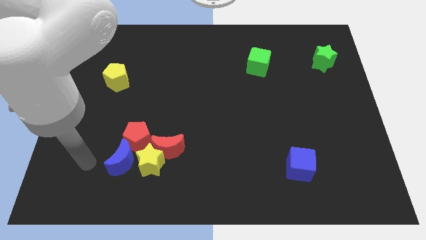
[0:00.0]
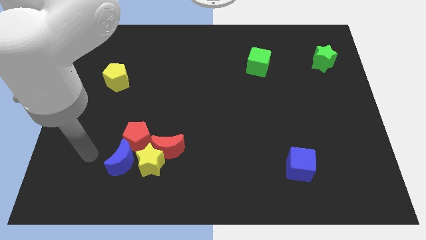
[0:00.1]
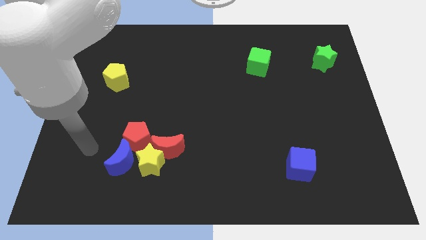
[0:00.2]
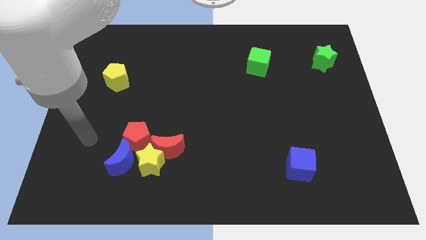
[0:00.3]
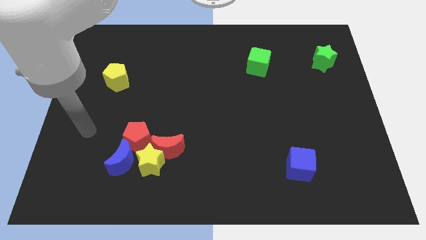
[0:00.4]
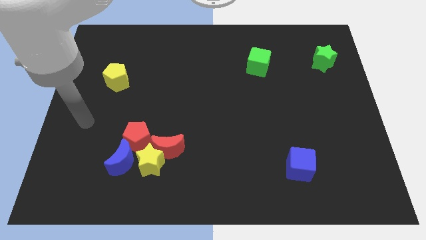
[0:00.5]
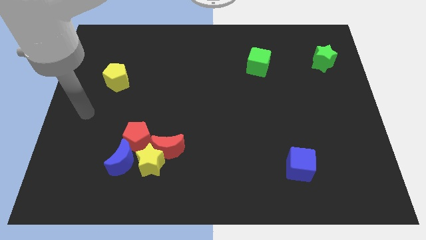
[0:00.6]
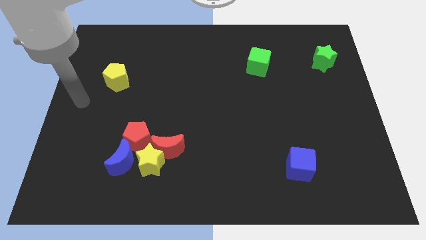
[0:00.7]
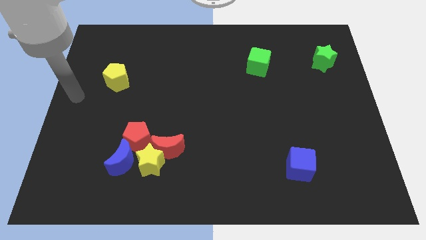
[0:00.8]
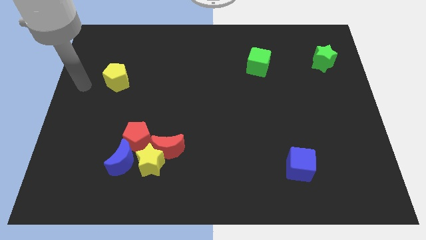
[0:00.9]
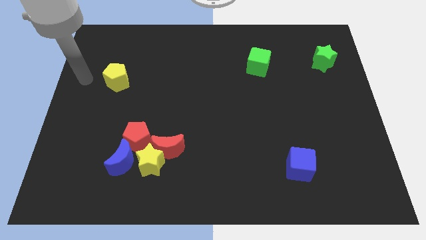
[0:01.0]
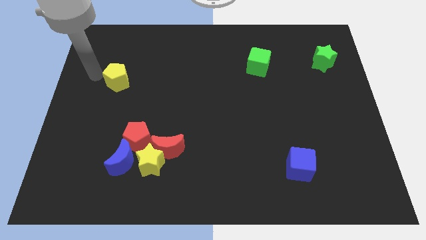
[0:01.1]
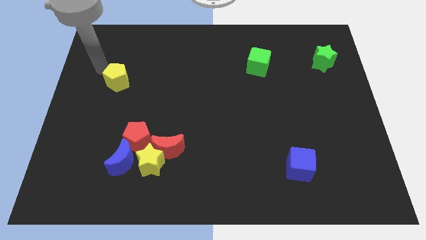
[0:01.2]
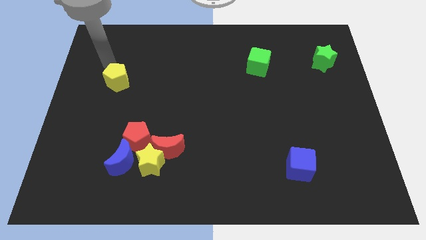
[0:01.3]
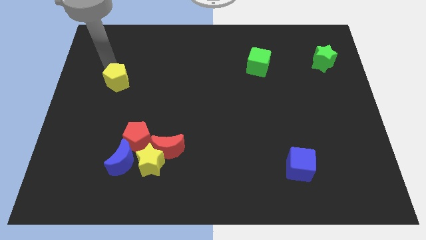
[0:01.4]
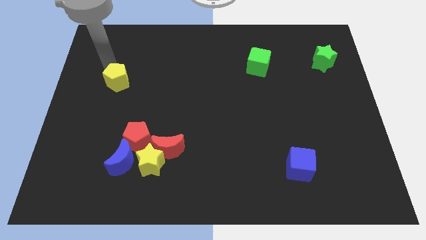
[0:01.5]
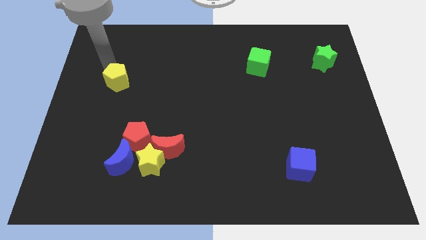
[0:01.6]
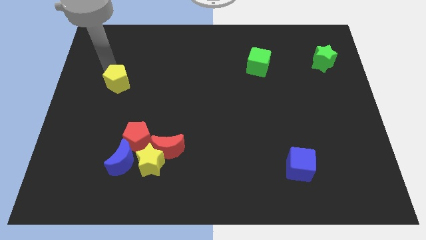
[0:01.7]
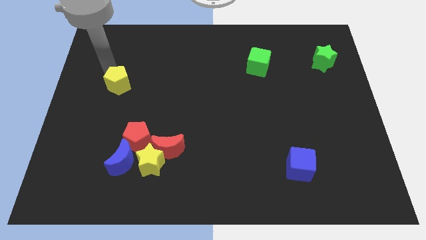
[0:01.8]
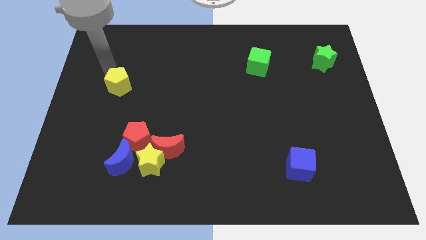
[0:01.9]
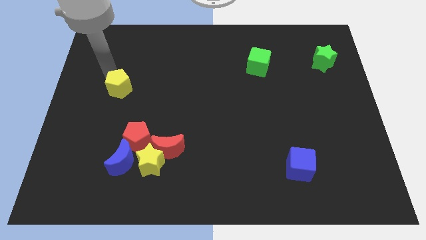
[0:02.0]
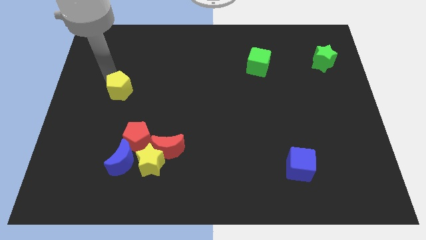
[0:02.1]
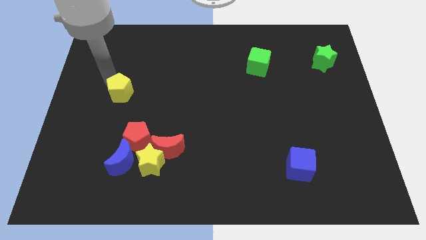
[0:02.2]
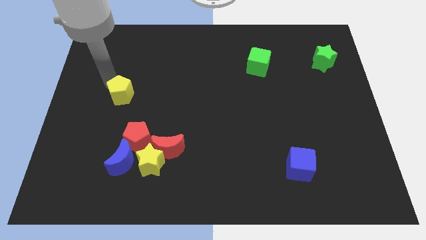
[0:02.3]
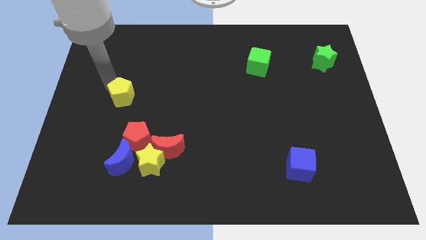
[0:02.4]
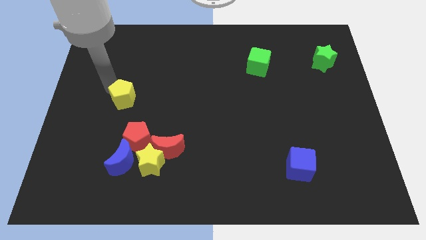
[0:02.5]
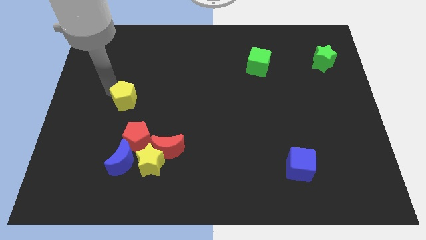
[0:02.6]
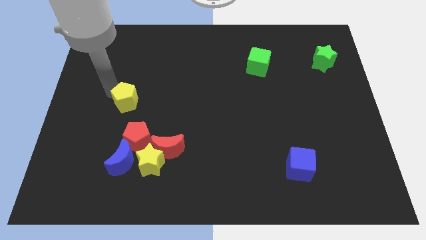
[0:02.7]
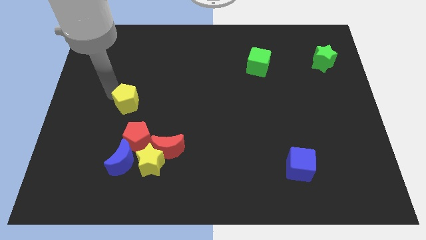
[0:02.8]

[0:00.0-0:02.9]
move the yellow pentagon down and then to the right somewhat

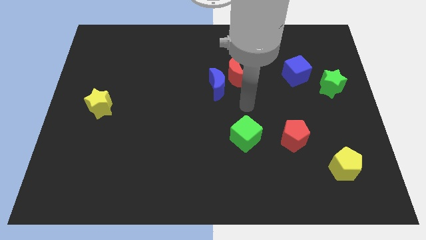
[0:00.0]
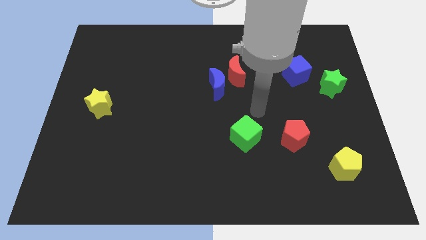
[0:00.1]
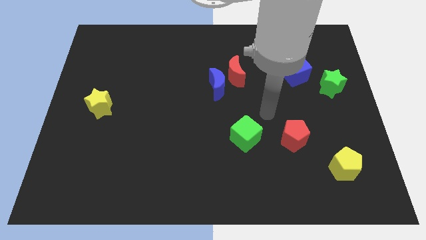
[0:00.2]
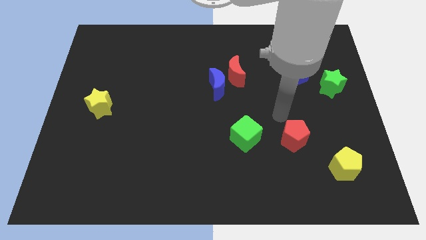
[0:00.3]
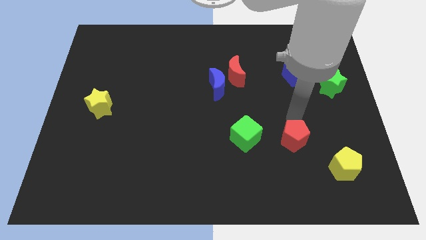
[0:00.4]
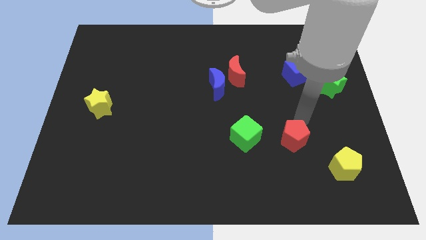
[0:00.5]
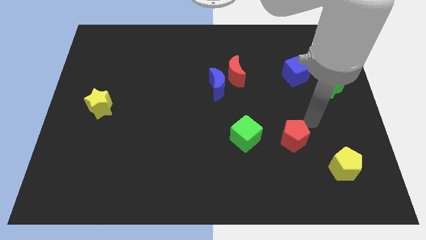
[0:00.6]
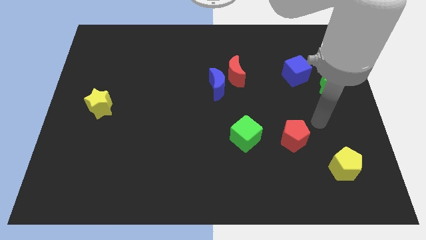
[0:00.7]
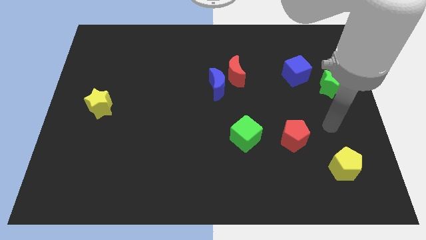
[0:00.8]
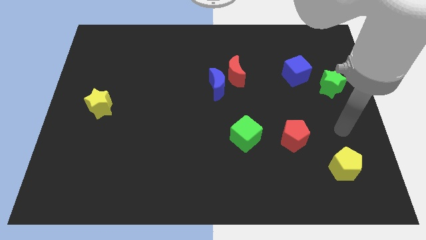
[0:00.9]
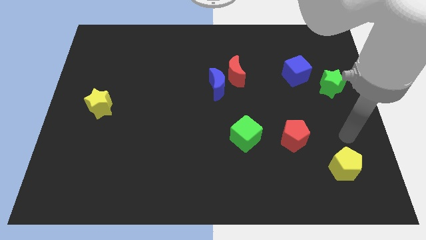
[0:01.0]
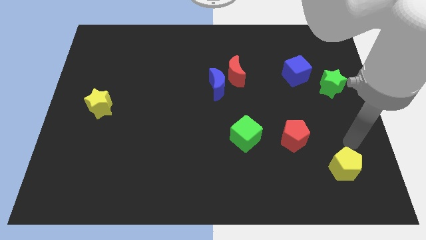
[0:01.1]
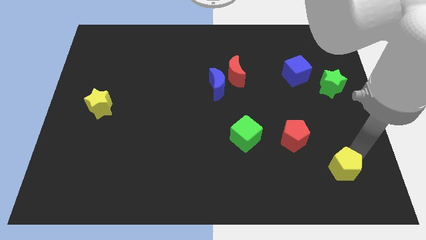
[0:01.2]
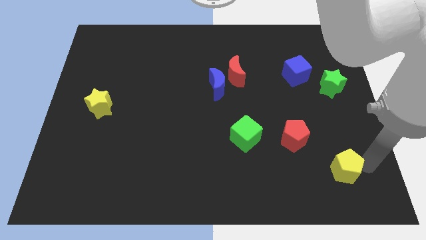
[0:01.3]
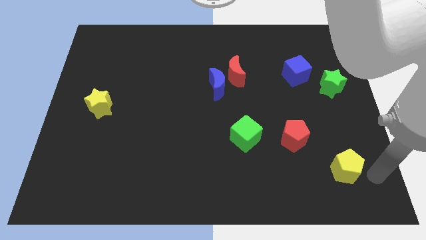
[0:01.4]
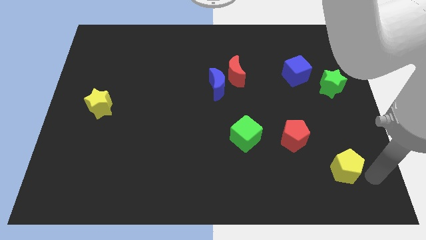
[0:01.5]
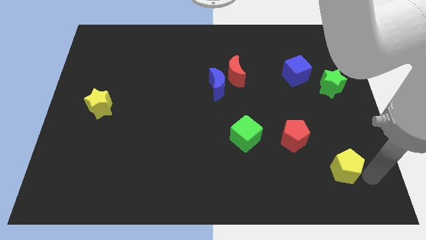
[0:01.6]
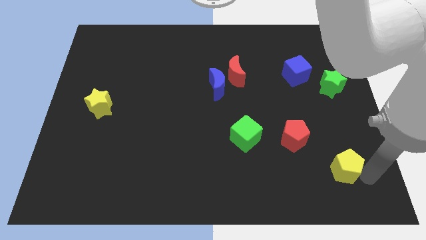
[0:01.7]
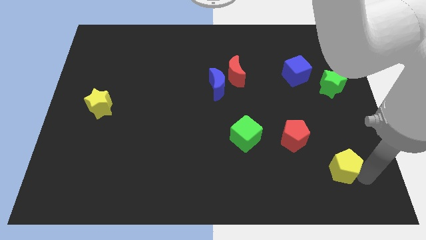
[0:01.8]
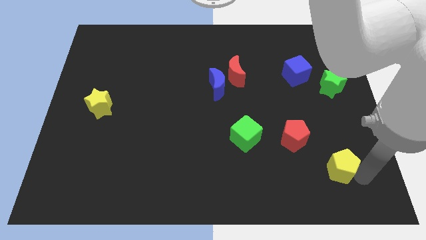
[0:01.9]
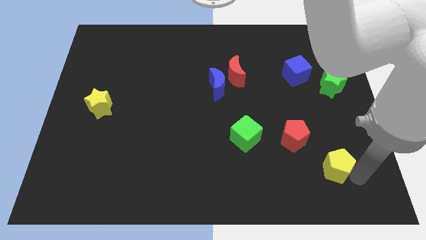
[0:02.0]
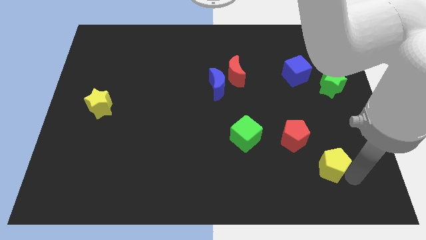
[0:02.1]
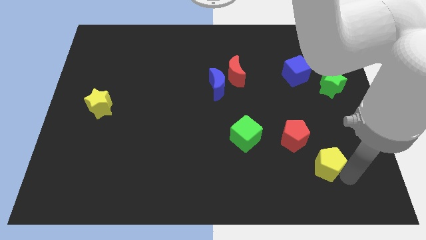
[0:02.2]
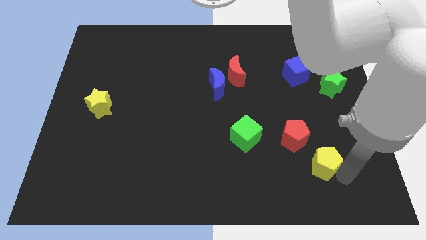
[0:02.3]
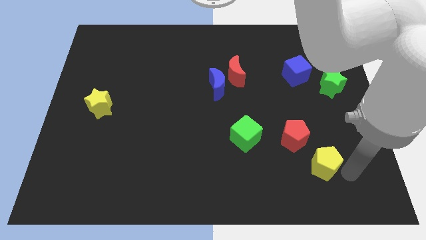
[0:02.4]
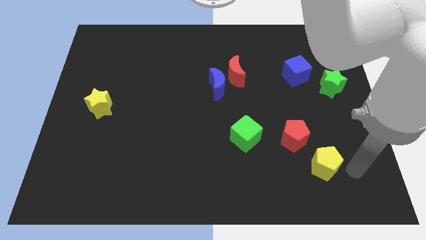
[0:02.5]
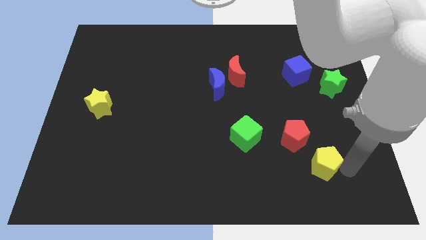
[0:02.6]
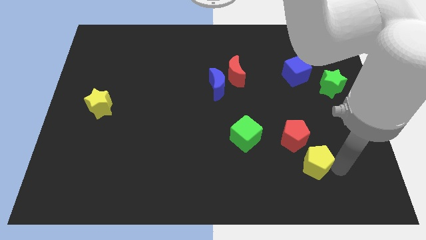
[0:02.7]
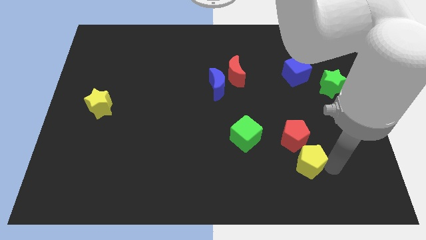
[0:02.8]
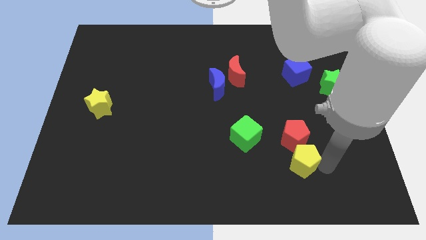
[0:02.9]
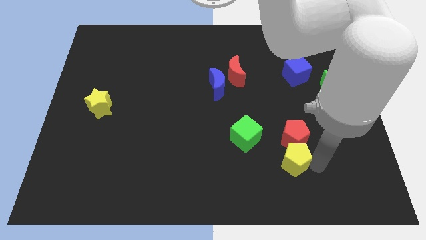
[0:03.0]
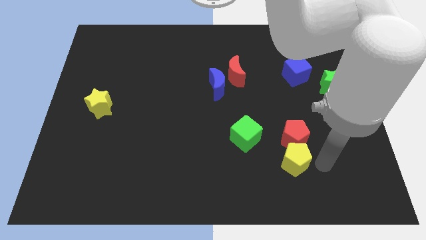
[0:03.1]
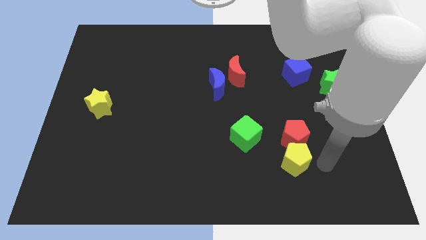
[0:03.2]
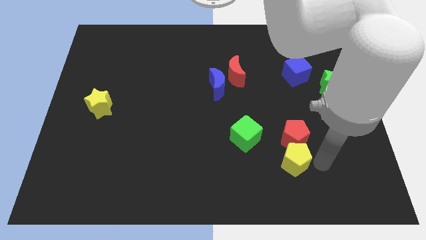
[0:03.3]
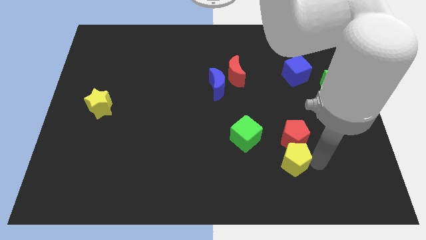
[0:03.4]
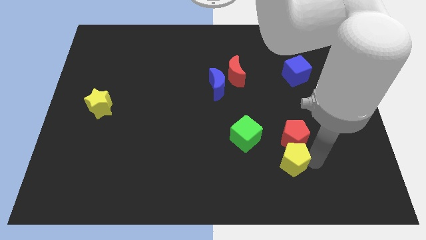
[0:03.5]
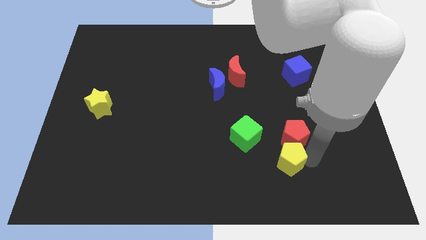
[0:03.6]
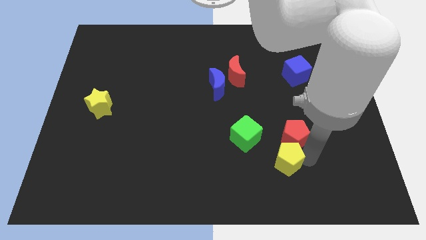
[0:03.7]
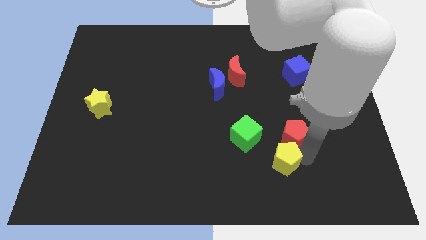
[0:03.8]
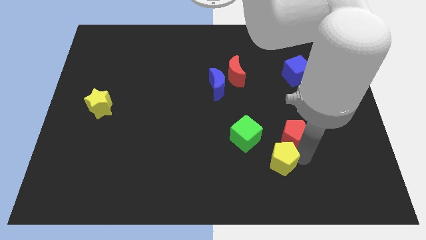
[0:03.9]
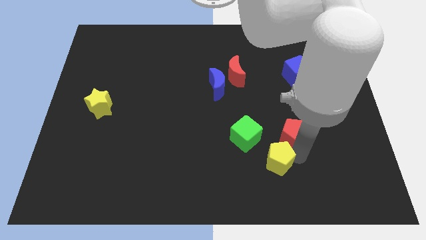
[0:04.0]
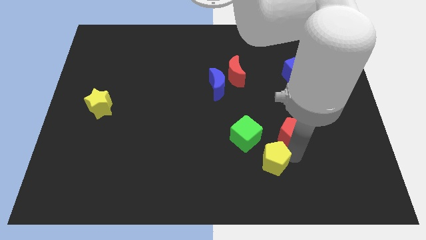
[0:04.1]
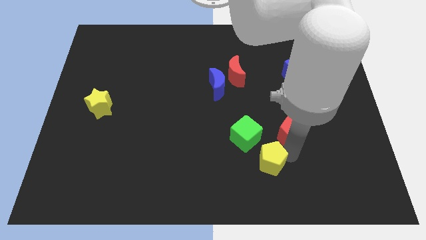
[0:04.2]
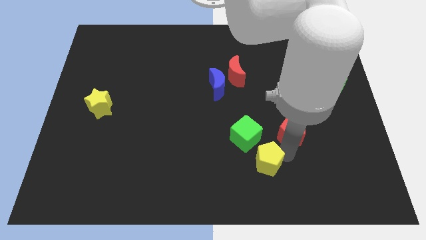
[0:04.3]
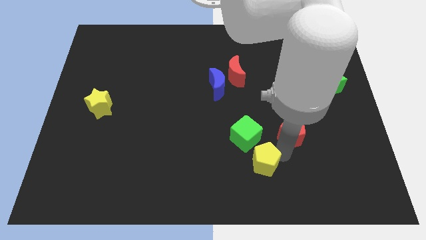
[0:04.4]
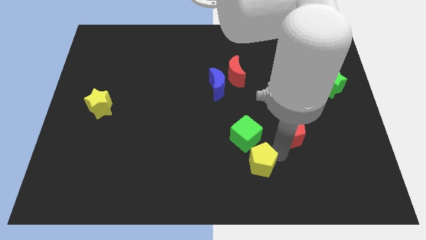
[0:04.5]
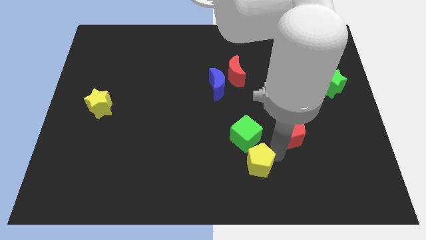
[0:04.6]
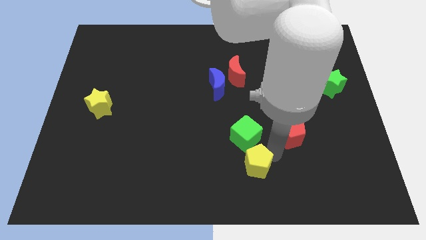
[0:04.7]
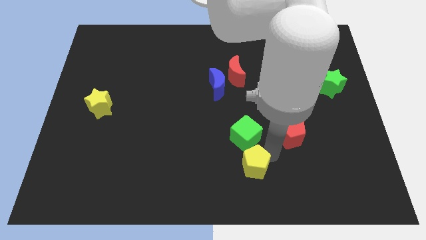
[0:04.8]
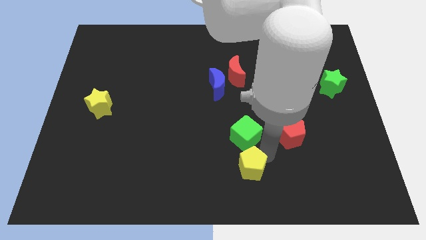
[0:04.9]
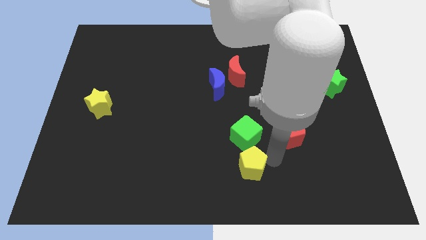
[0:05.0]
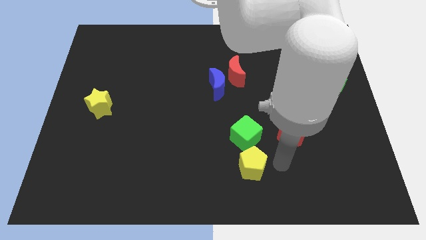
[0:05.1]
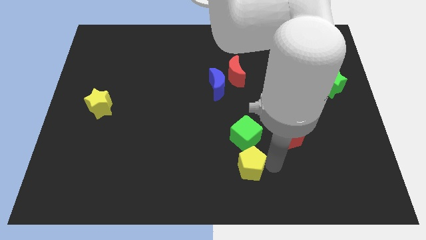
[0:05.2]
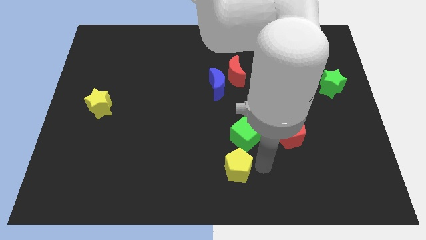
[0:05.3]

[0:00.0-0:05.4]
slide the yellow pentagon to the left
